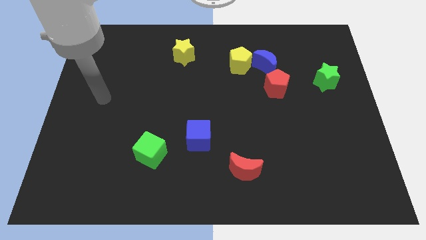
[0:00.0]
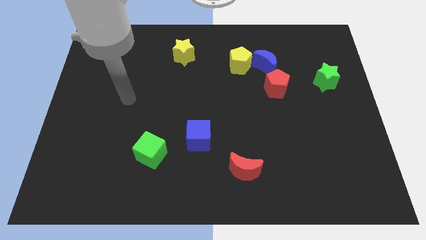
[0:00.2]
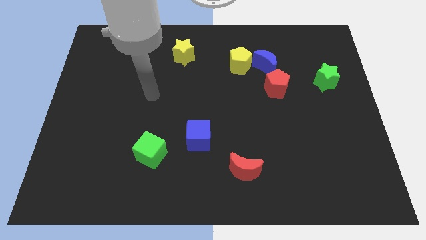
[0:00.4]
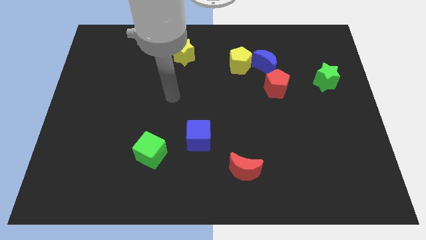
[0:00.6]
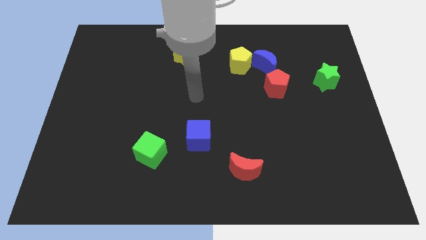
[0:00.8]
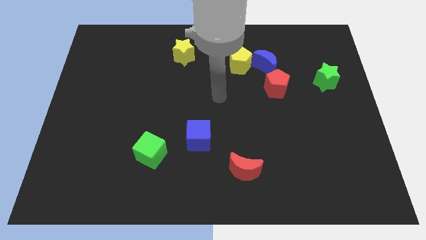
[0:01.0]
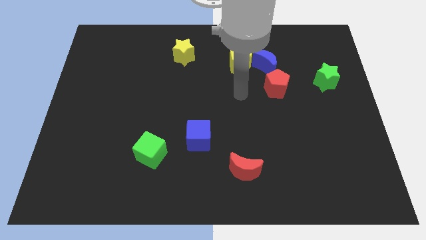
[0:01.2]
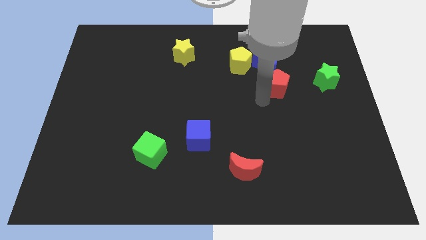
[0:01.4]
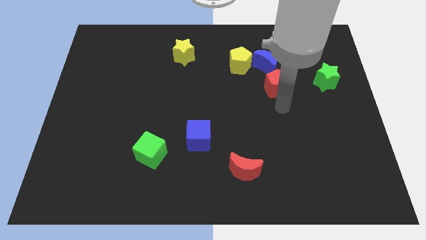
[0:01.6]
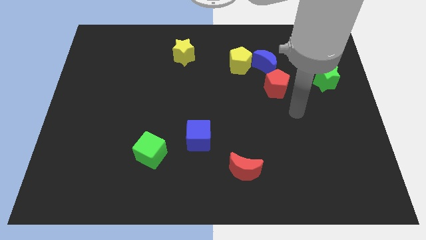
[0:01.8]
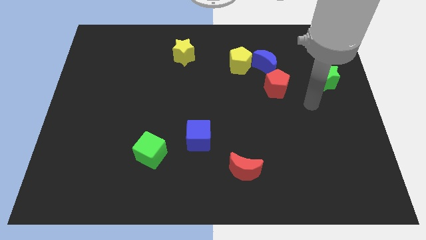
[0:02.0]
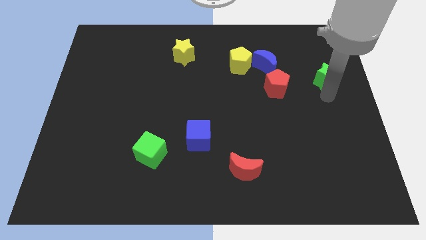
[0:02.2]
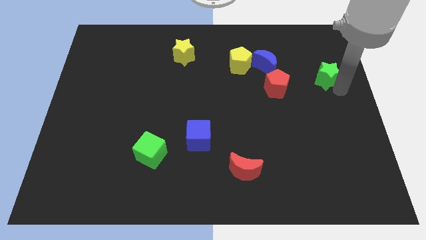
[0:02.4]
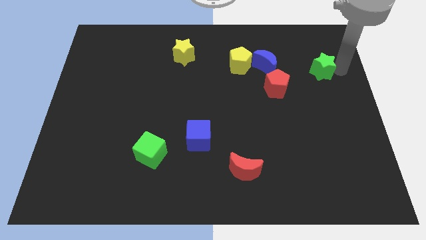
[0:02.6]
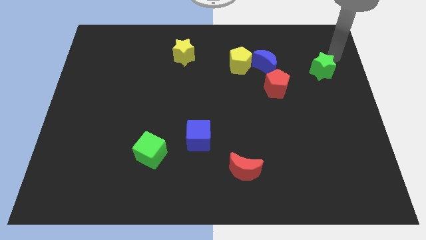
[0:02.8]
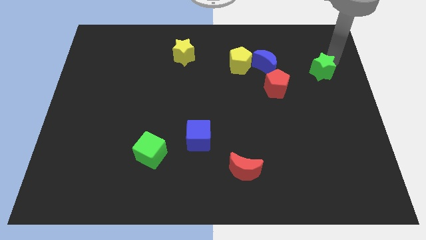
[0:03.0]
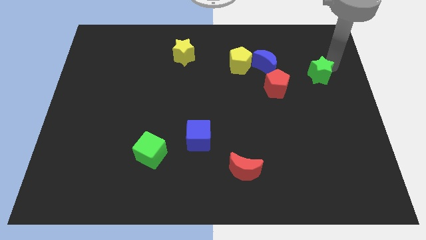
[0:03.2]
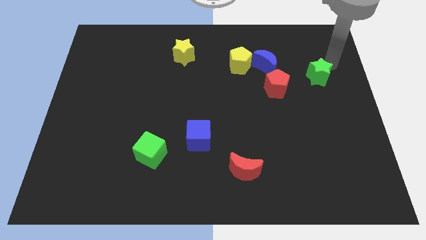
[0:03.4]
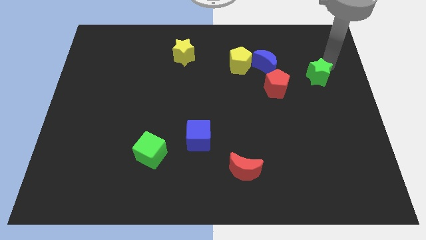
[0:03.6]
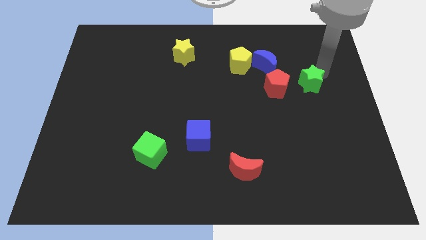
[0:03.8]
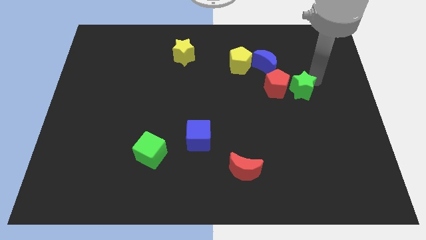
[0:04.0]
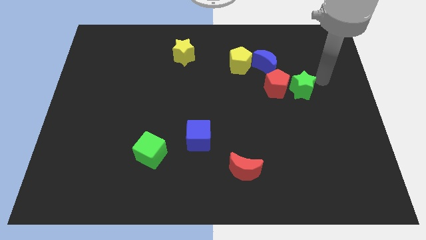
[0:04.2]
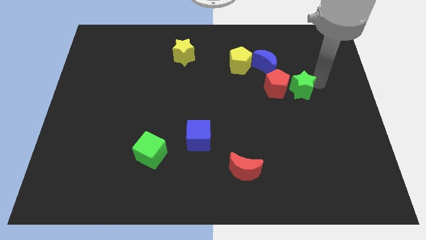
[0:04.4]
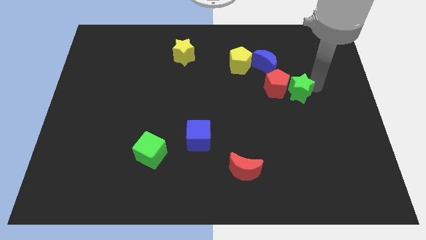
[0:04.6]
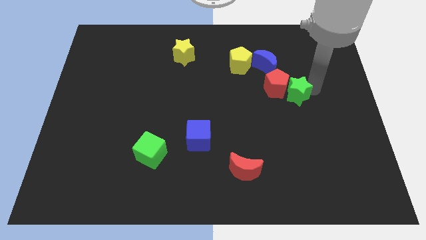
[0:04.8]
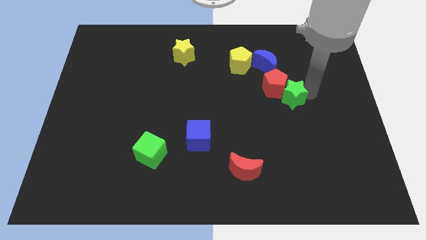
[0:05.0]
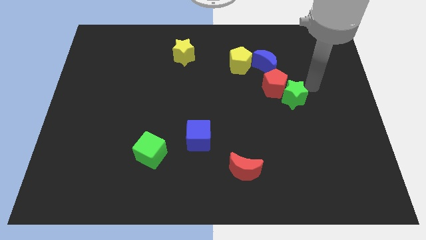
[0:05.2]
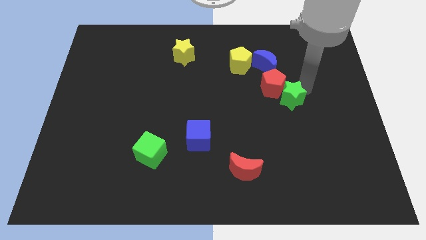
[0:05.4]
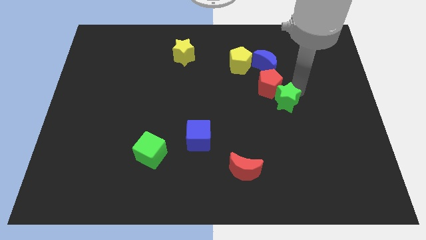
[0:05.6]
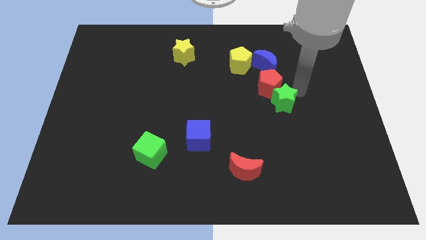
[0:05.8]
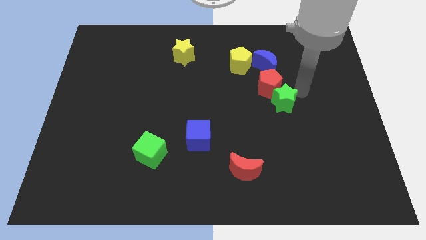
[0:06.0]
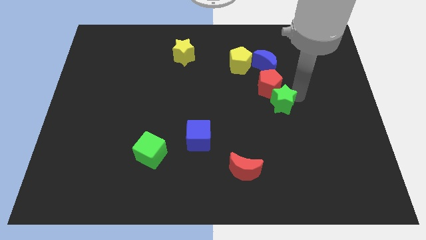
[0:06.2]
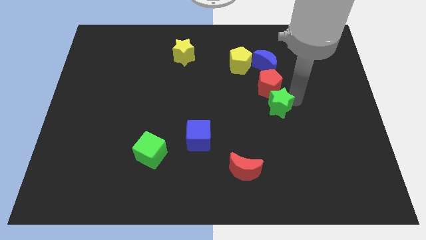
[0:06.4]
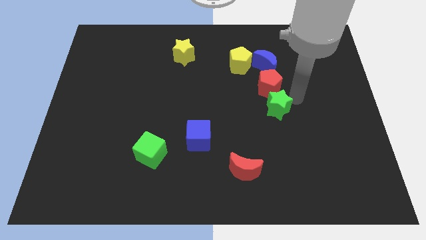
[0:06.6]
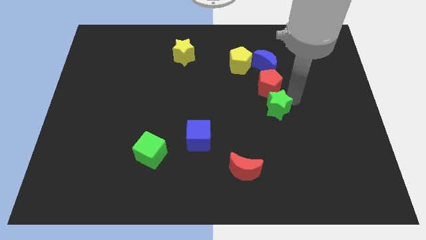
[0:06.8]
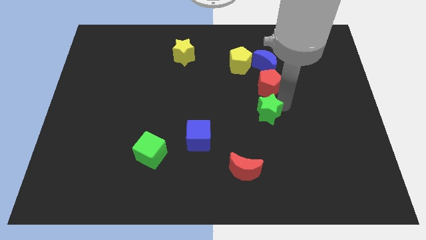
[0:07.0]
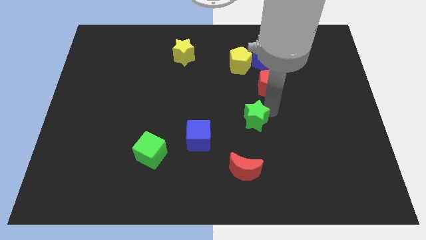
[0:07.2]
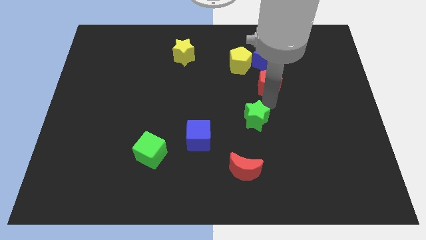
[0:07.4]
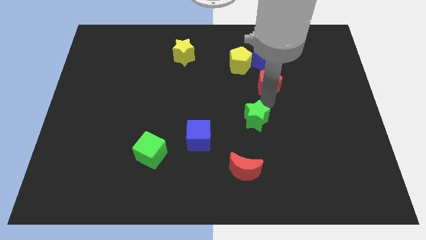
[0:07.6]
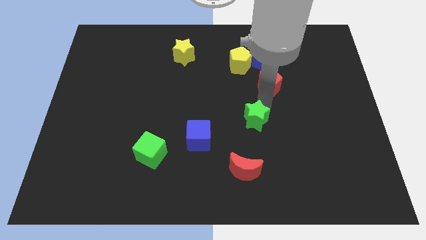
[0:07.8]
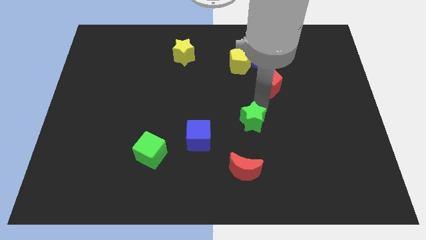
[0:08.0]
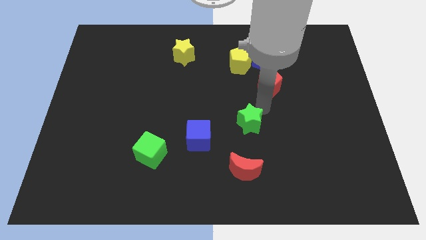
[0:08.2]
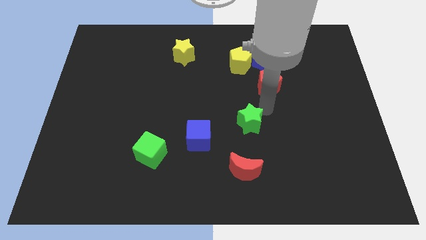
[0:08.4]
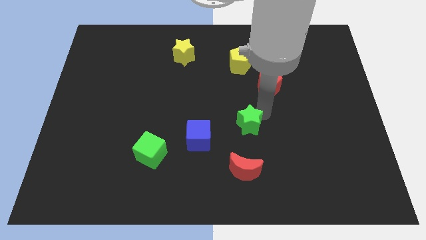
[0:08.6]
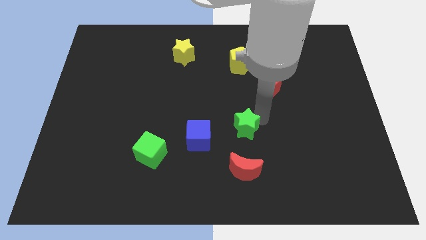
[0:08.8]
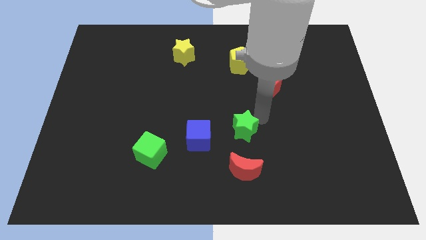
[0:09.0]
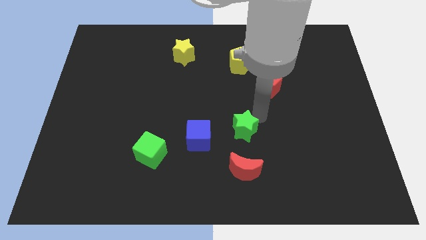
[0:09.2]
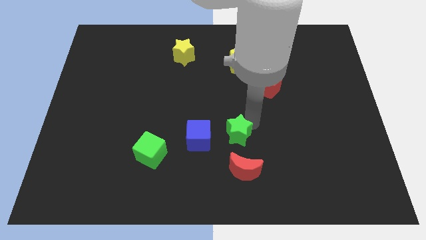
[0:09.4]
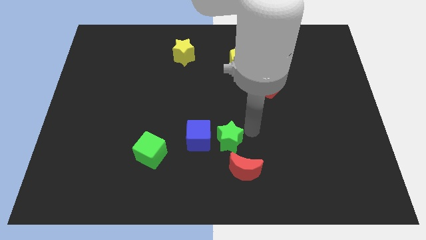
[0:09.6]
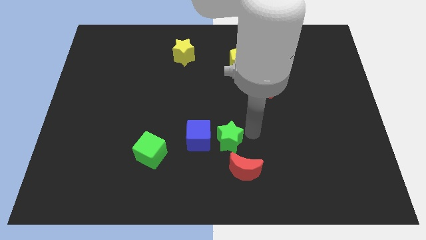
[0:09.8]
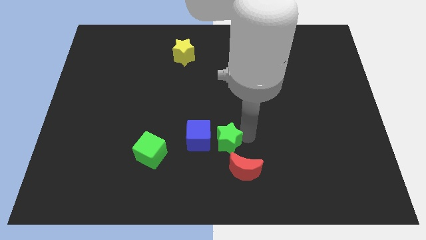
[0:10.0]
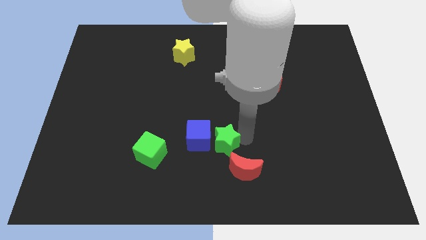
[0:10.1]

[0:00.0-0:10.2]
move the green star to the right of the green cube

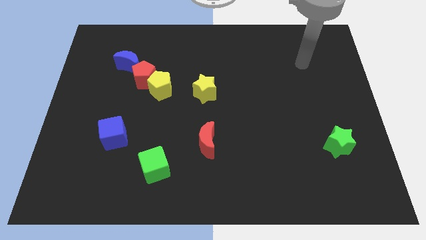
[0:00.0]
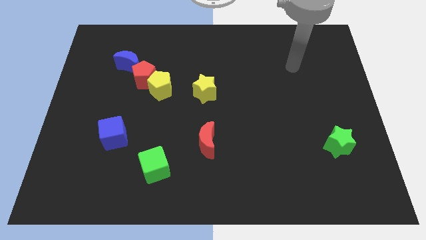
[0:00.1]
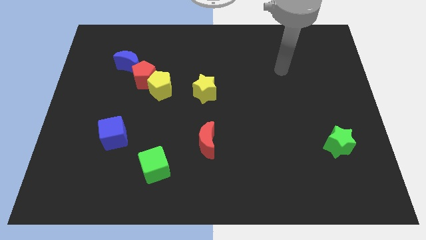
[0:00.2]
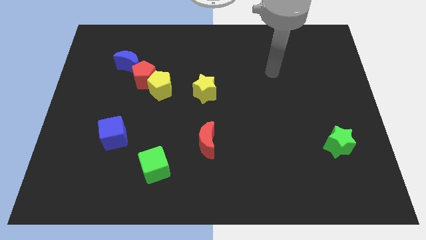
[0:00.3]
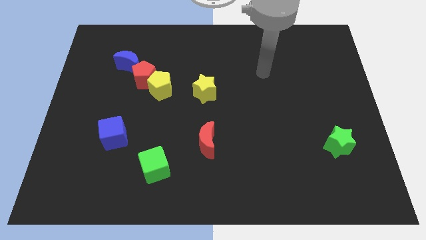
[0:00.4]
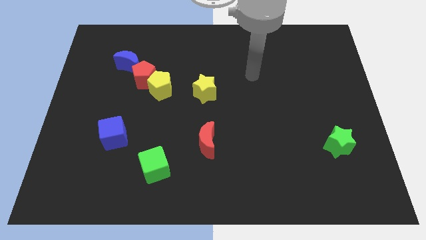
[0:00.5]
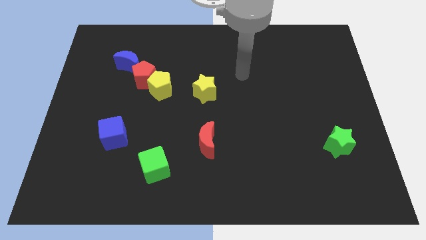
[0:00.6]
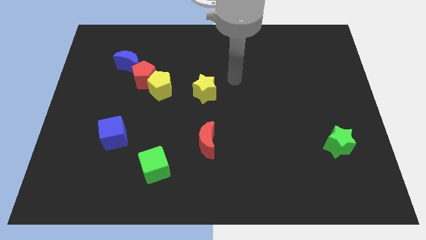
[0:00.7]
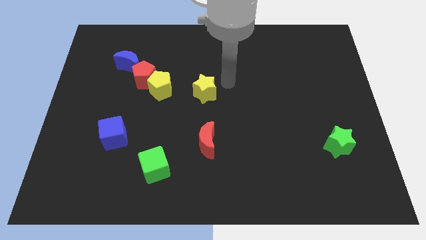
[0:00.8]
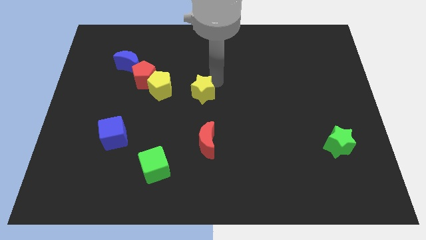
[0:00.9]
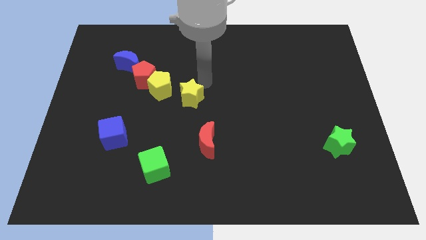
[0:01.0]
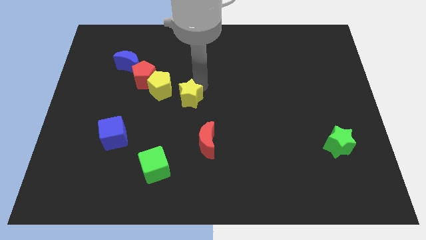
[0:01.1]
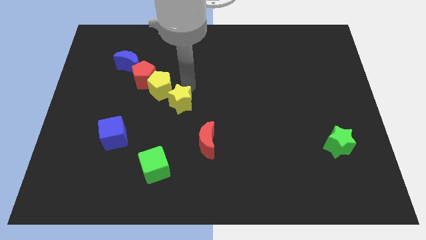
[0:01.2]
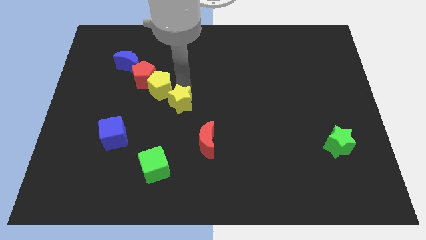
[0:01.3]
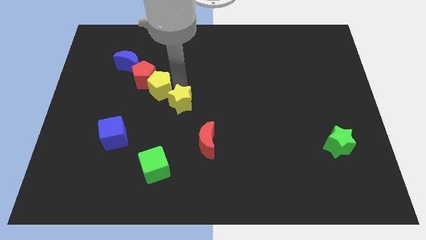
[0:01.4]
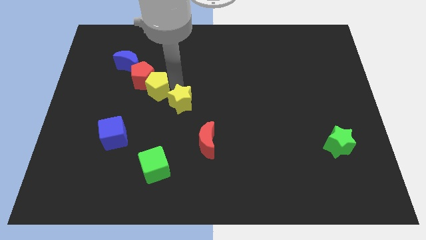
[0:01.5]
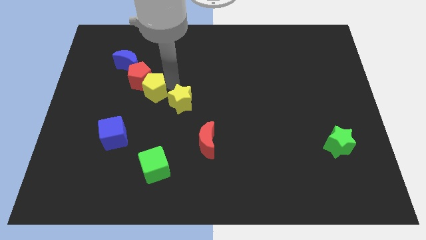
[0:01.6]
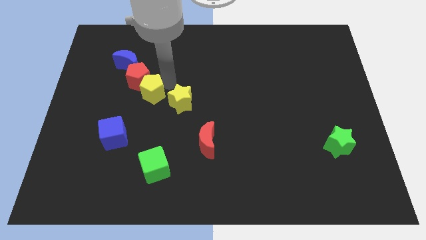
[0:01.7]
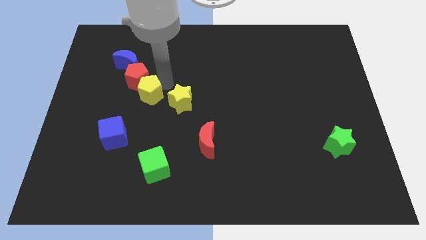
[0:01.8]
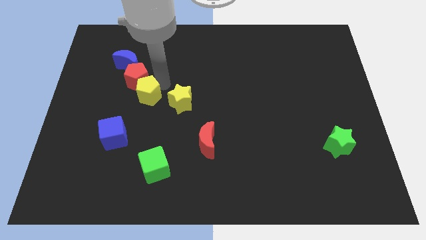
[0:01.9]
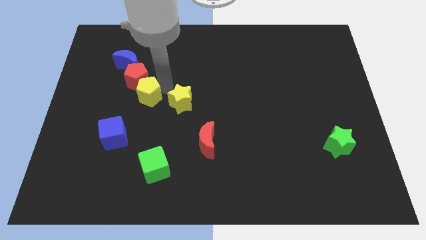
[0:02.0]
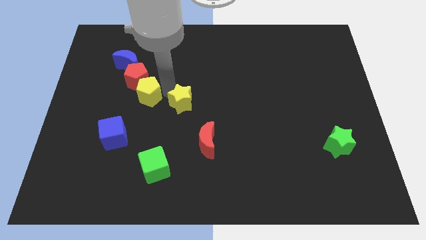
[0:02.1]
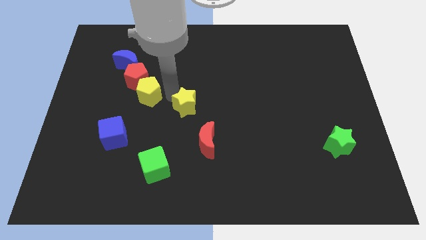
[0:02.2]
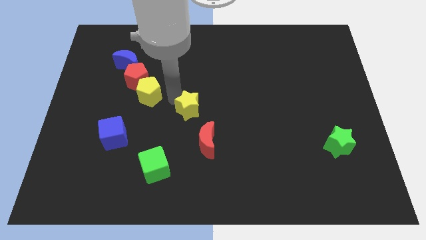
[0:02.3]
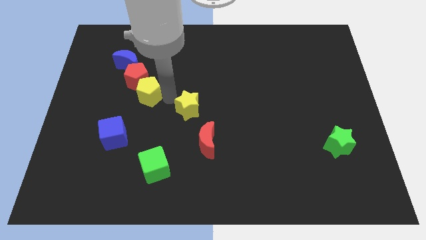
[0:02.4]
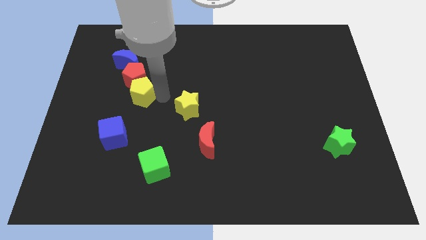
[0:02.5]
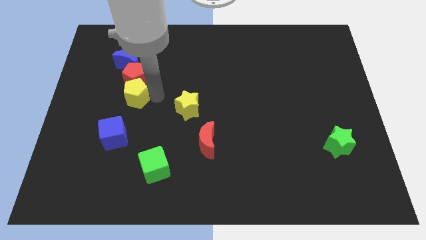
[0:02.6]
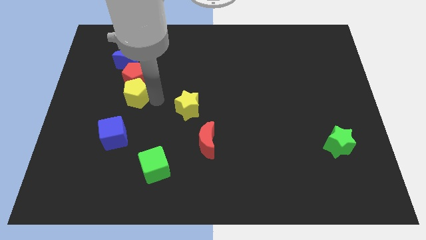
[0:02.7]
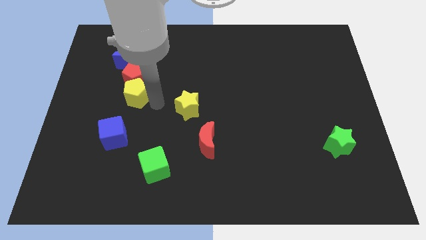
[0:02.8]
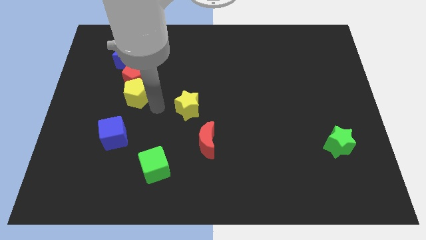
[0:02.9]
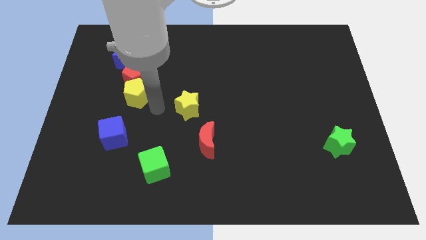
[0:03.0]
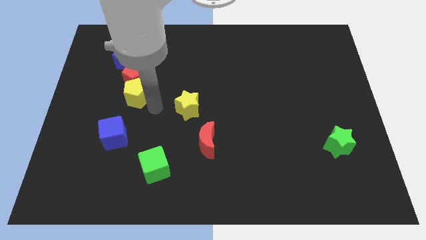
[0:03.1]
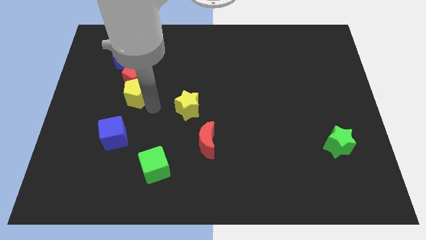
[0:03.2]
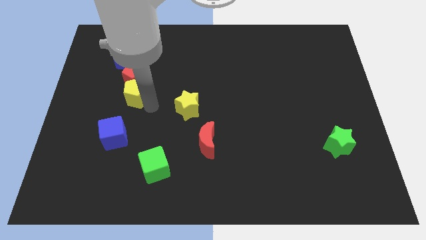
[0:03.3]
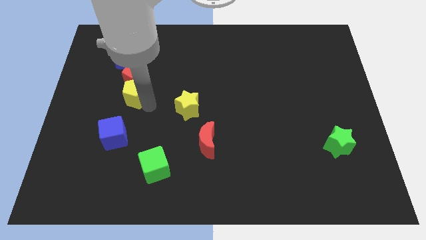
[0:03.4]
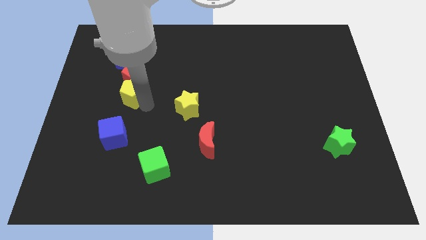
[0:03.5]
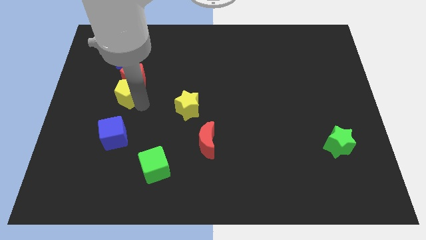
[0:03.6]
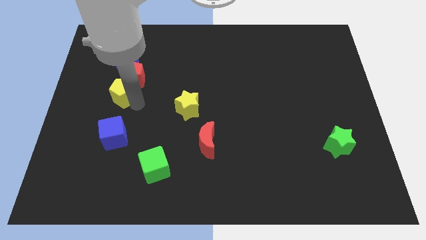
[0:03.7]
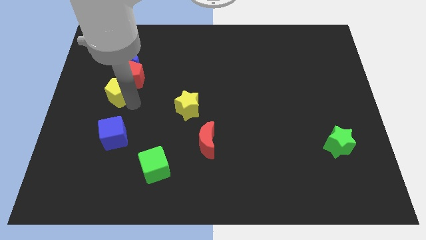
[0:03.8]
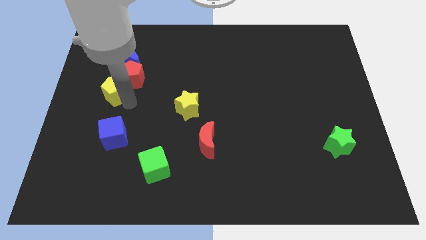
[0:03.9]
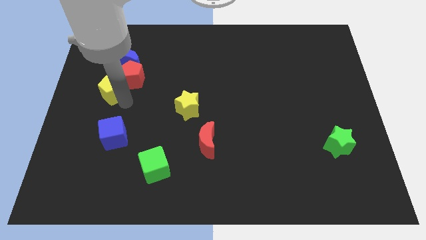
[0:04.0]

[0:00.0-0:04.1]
push the yellow pentagon to the left of the red pentagon
